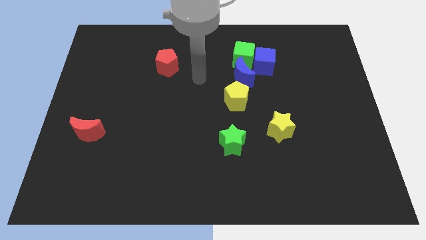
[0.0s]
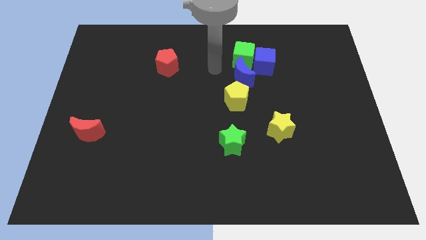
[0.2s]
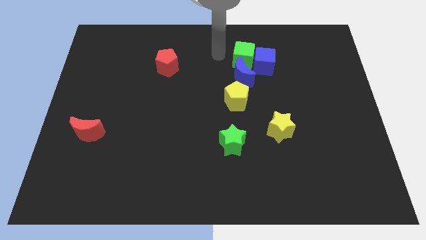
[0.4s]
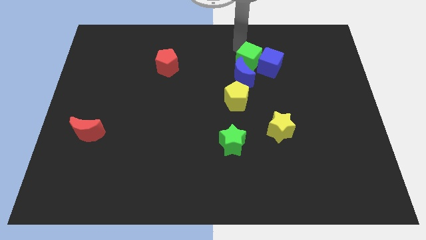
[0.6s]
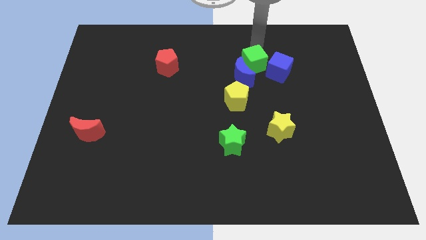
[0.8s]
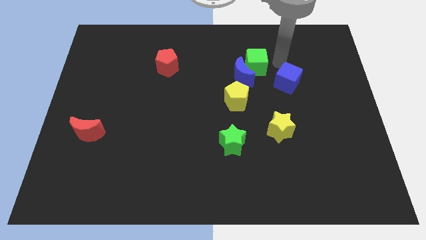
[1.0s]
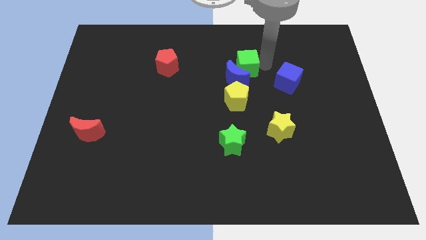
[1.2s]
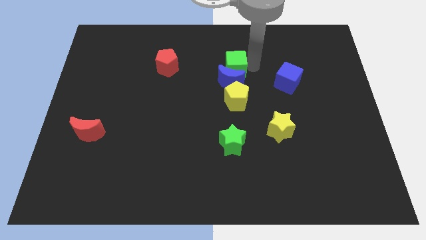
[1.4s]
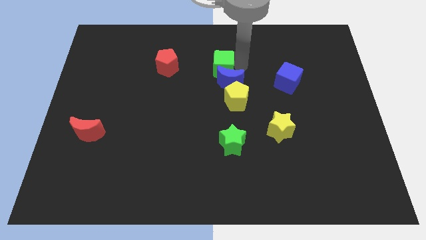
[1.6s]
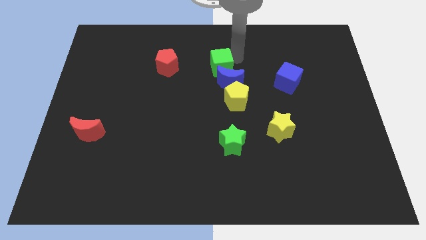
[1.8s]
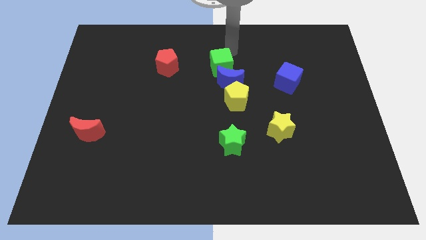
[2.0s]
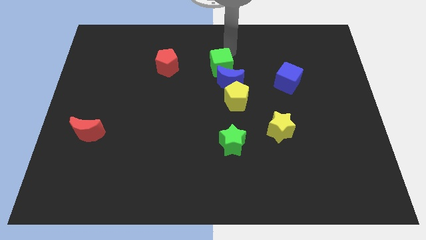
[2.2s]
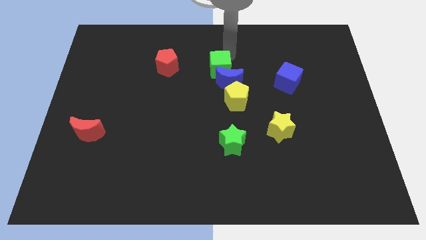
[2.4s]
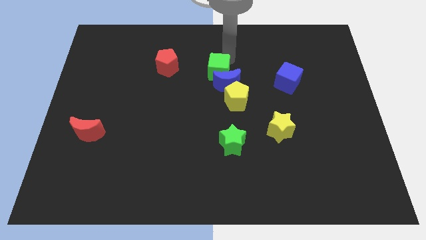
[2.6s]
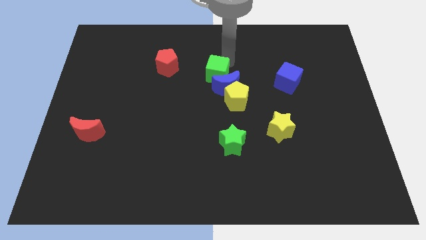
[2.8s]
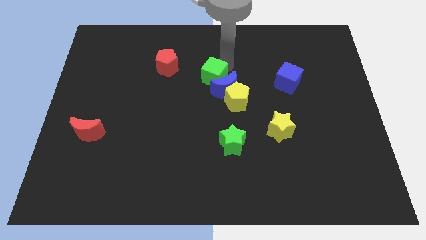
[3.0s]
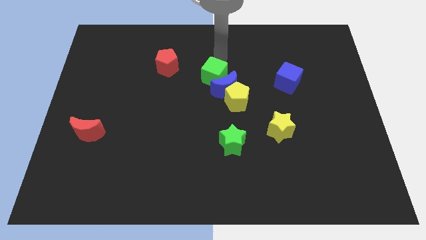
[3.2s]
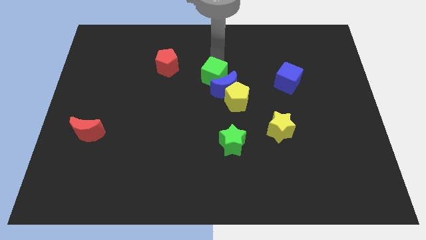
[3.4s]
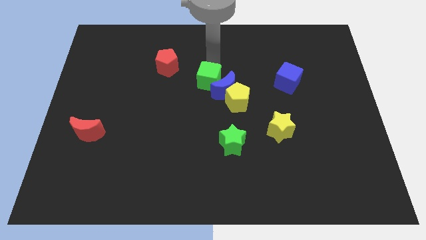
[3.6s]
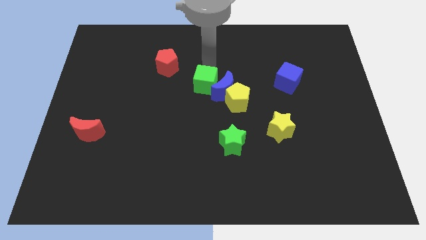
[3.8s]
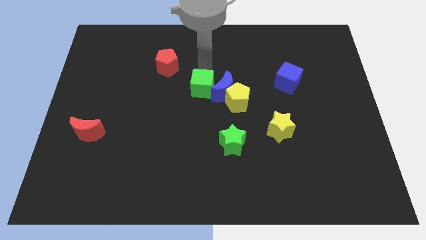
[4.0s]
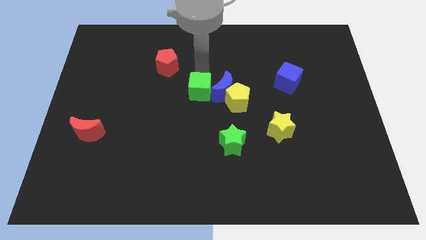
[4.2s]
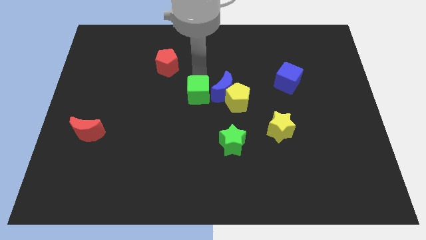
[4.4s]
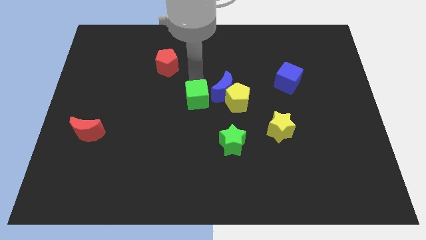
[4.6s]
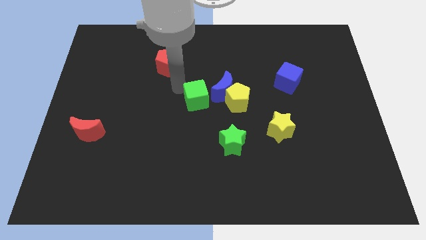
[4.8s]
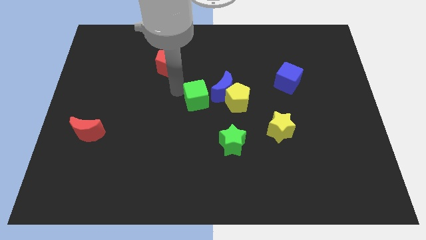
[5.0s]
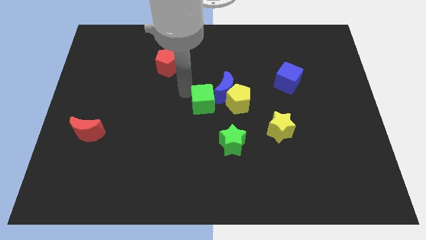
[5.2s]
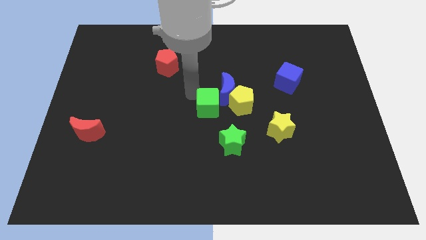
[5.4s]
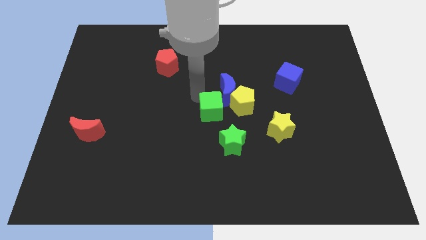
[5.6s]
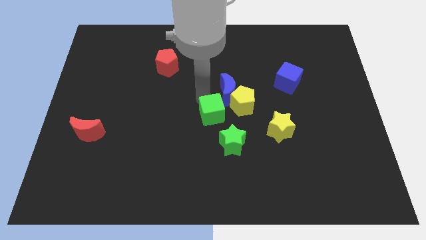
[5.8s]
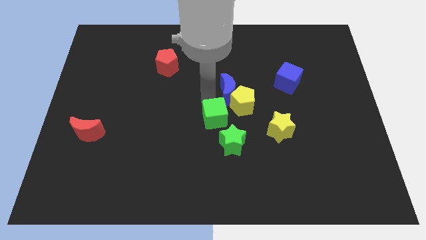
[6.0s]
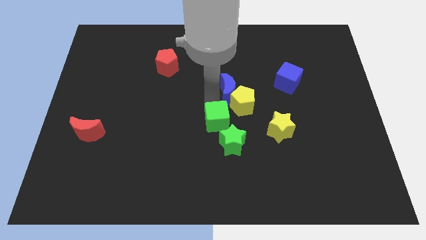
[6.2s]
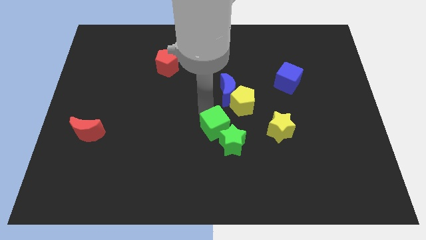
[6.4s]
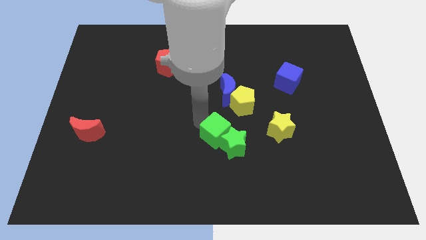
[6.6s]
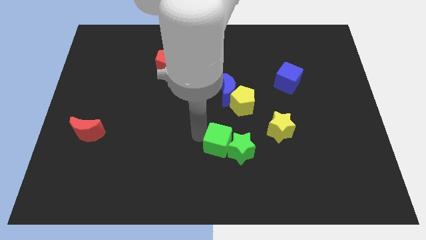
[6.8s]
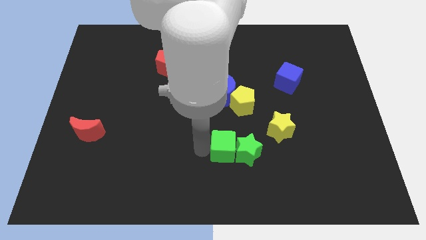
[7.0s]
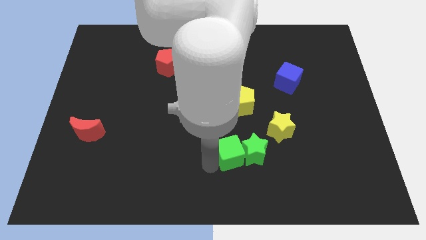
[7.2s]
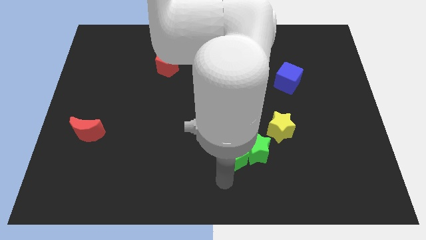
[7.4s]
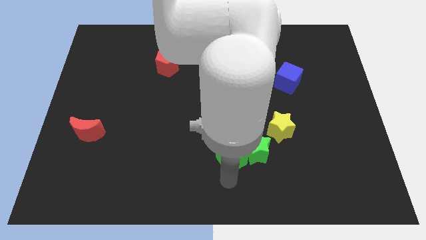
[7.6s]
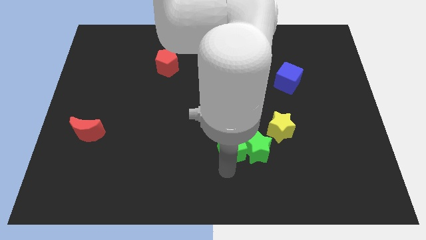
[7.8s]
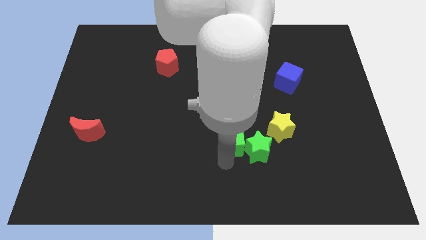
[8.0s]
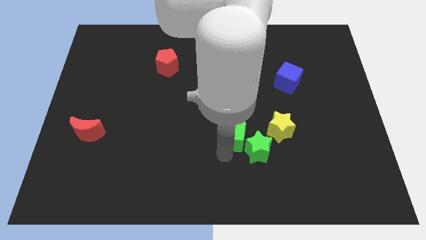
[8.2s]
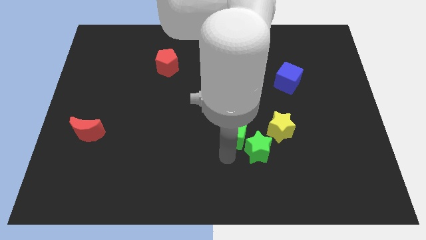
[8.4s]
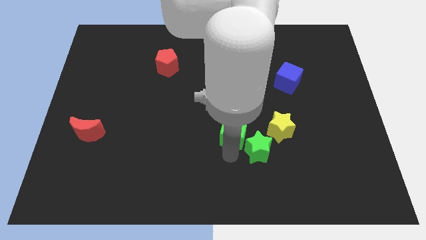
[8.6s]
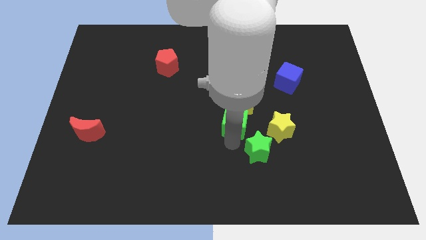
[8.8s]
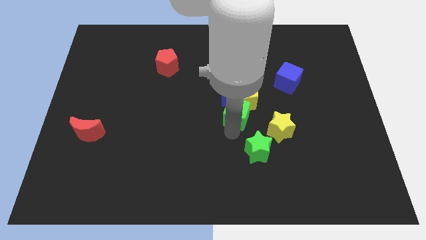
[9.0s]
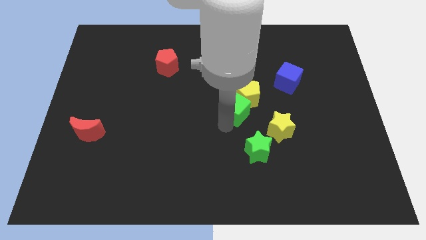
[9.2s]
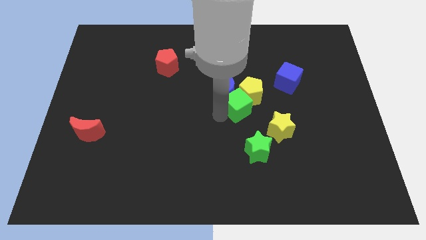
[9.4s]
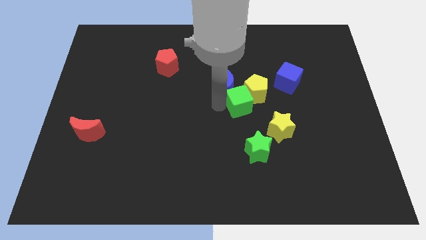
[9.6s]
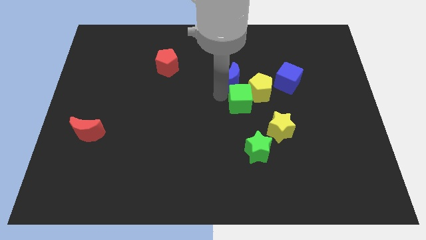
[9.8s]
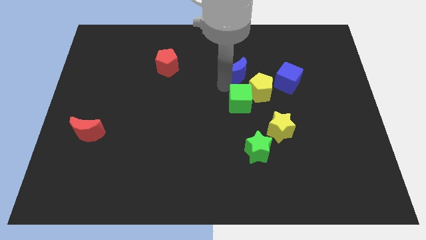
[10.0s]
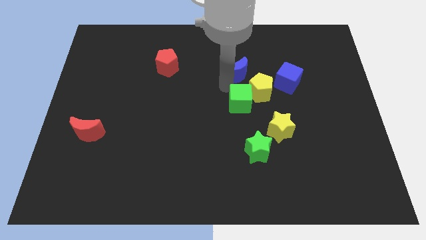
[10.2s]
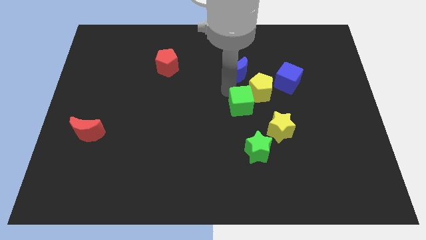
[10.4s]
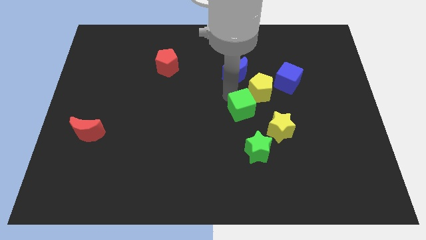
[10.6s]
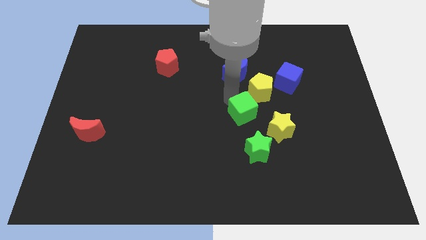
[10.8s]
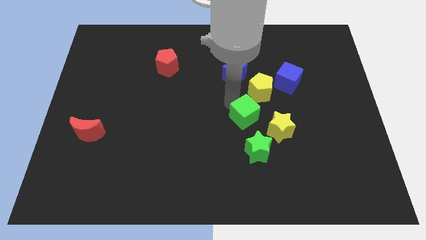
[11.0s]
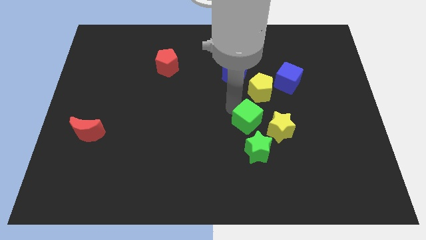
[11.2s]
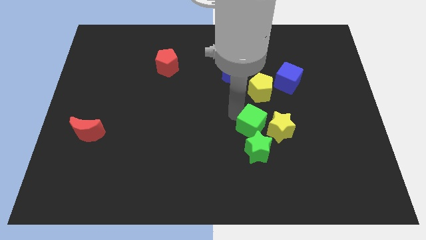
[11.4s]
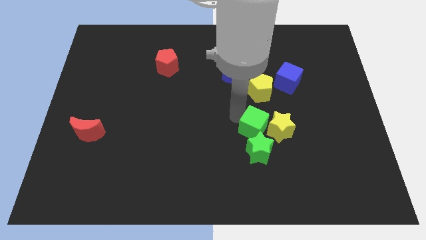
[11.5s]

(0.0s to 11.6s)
push the green cube towards the yellow star

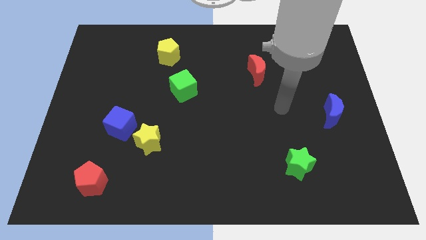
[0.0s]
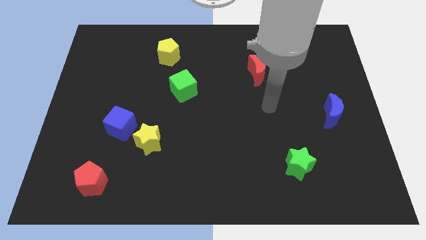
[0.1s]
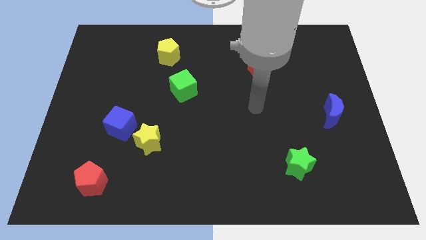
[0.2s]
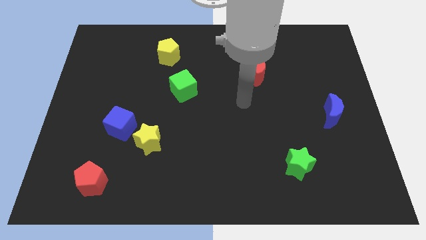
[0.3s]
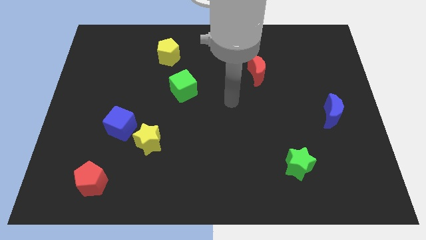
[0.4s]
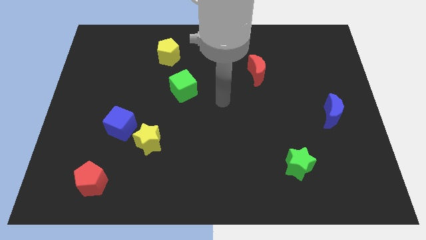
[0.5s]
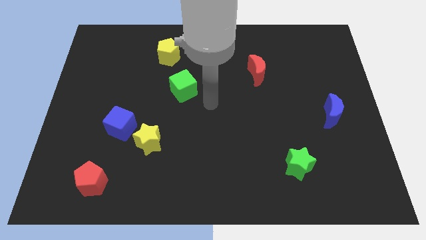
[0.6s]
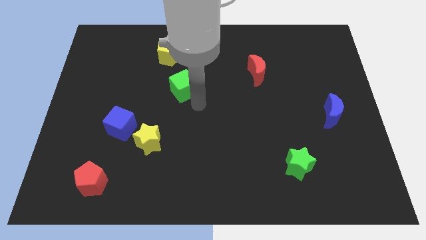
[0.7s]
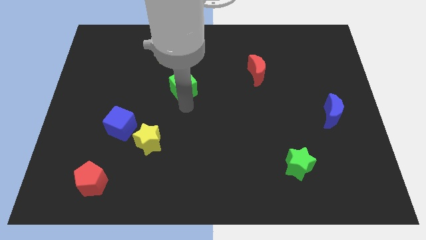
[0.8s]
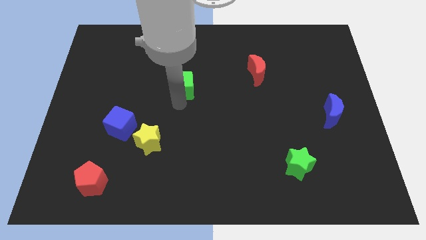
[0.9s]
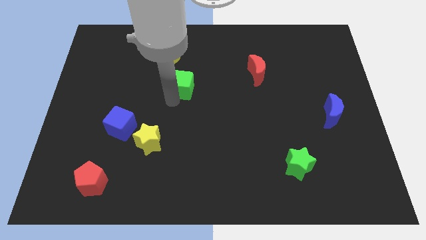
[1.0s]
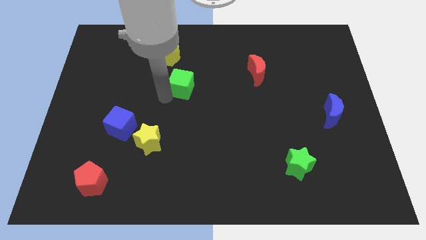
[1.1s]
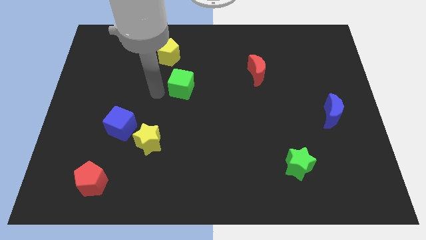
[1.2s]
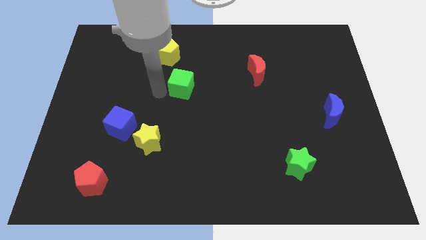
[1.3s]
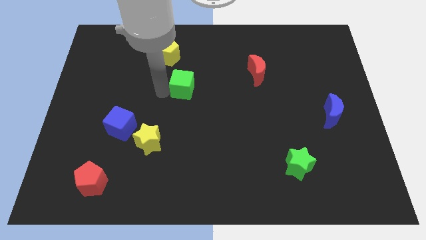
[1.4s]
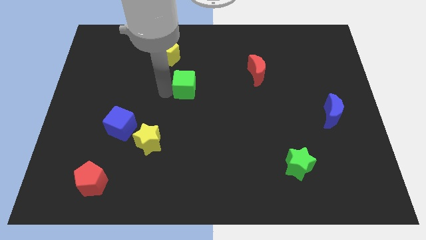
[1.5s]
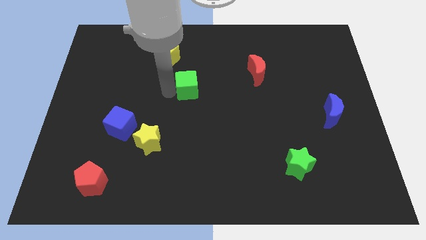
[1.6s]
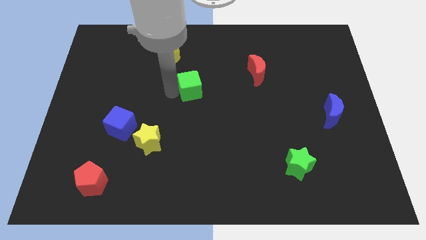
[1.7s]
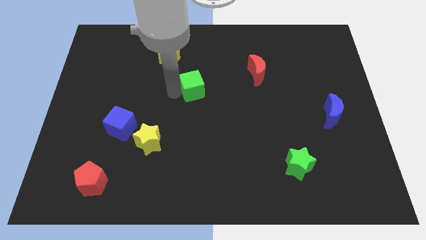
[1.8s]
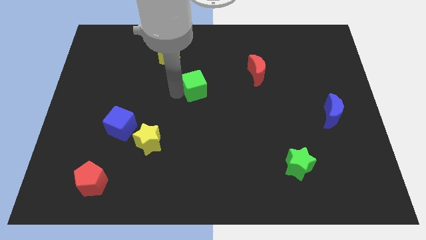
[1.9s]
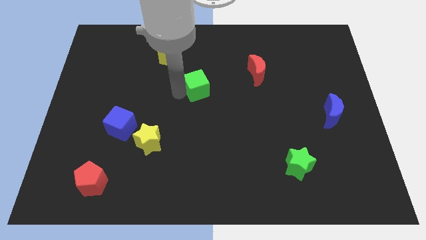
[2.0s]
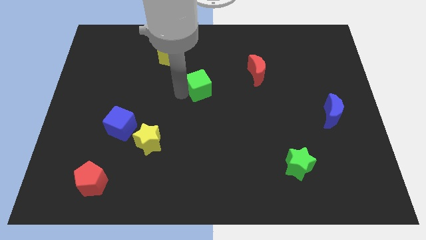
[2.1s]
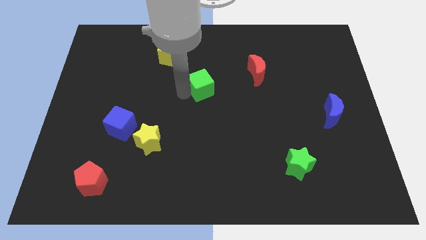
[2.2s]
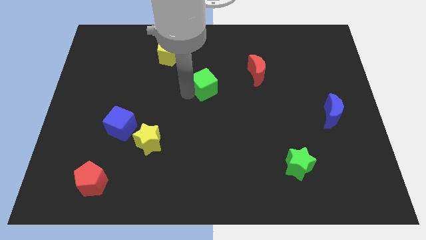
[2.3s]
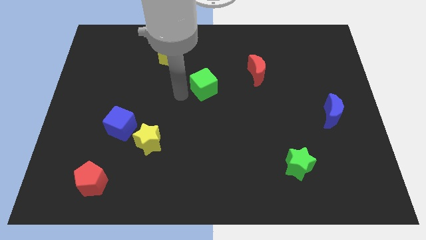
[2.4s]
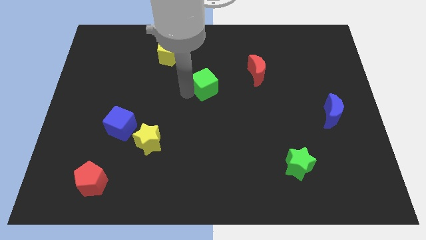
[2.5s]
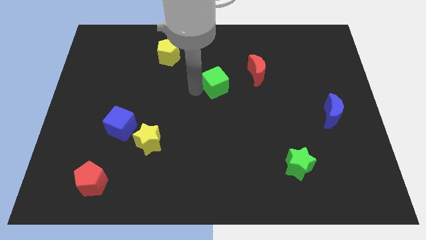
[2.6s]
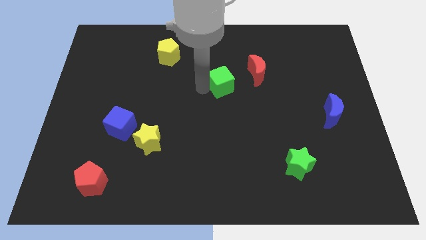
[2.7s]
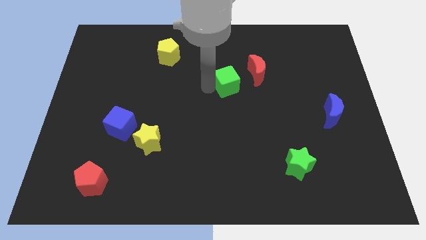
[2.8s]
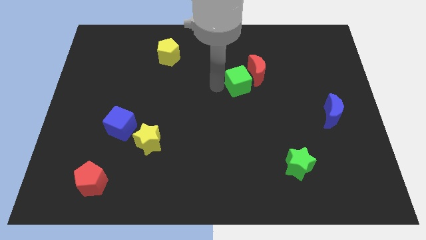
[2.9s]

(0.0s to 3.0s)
push the green cube close to the red moon
